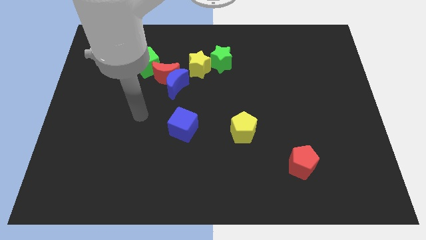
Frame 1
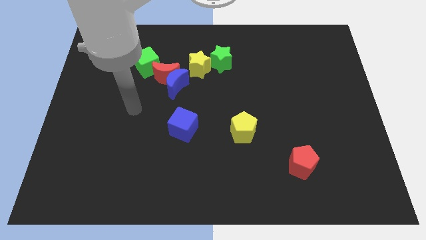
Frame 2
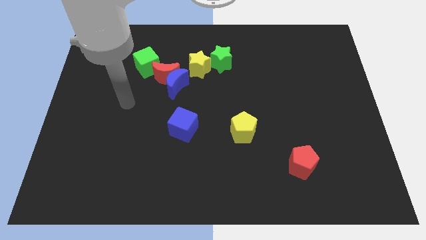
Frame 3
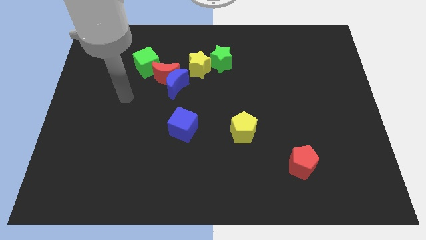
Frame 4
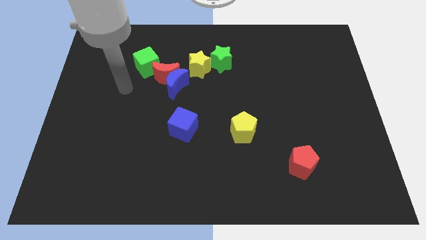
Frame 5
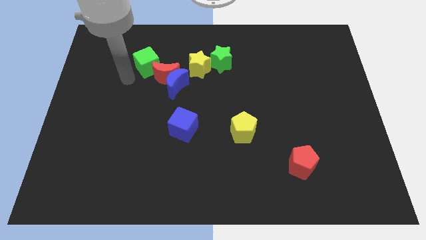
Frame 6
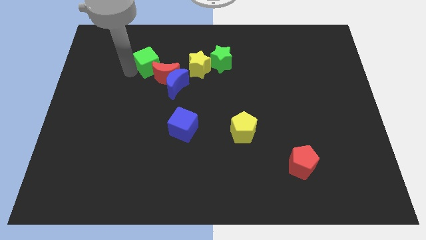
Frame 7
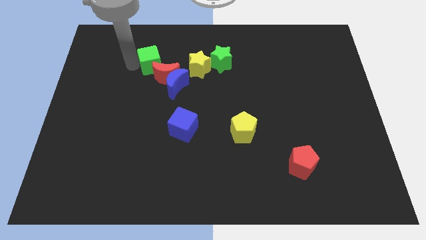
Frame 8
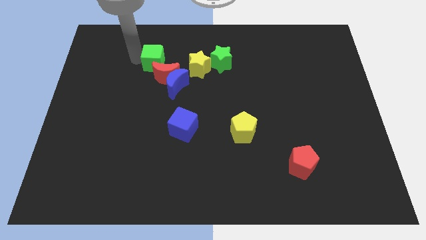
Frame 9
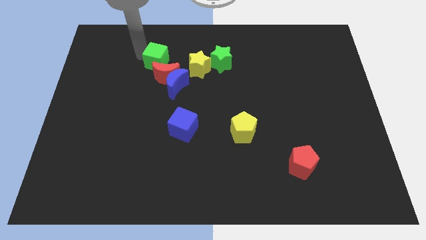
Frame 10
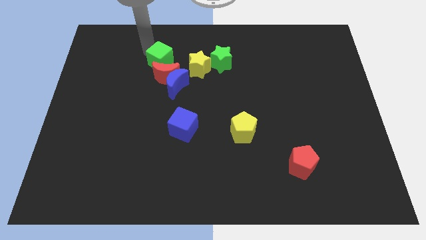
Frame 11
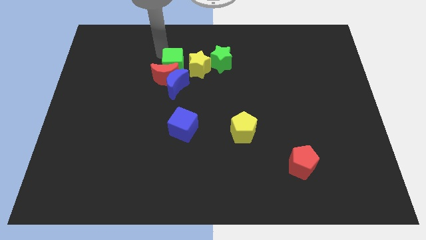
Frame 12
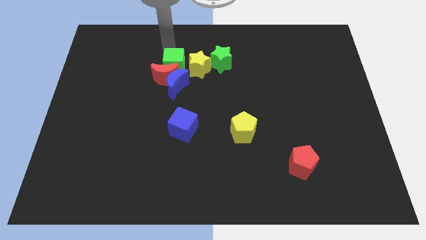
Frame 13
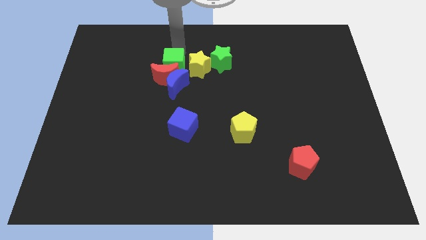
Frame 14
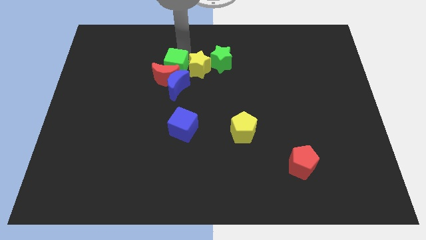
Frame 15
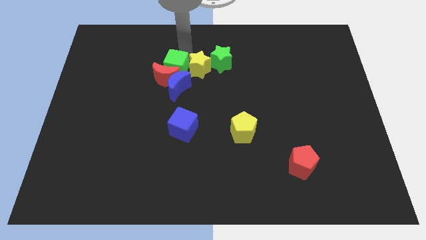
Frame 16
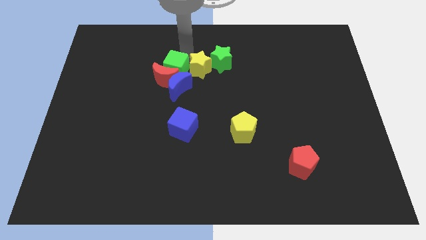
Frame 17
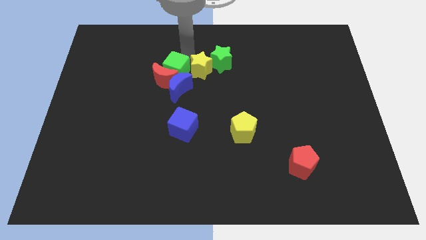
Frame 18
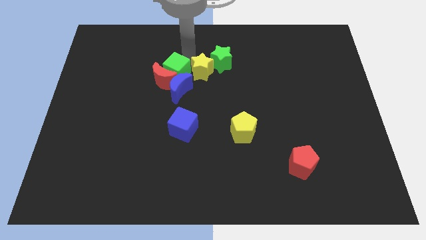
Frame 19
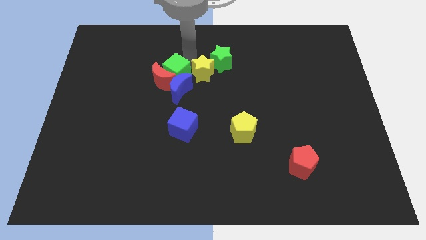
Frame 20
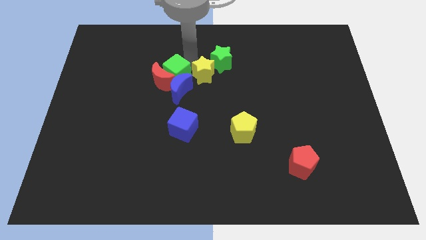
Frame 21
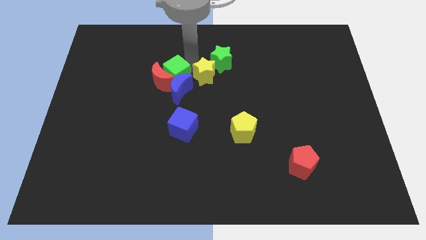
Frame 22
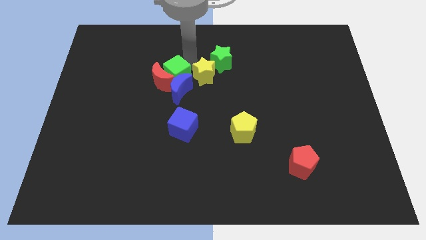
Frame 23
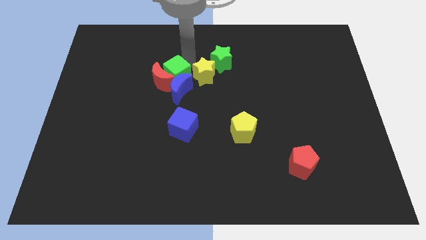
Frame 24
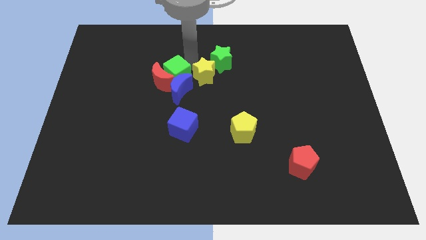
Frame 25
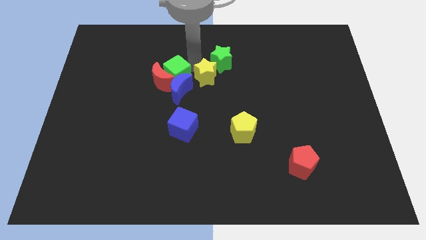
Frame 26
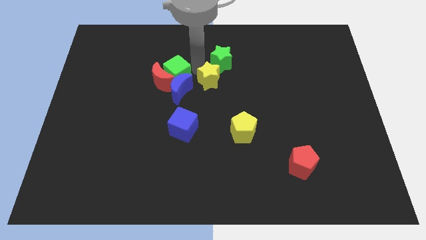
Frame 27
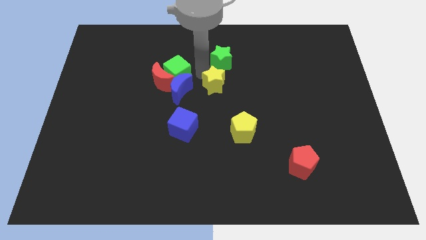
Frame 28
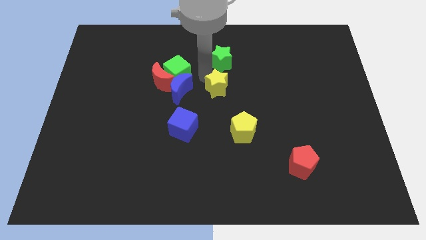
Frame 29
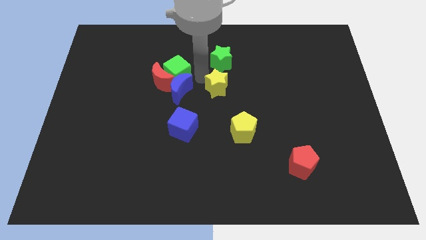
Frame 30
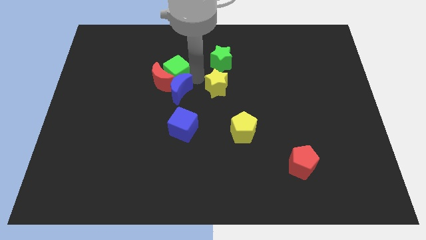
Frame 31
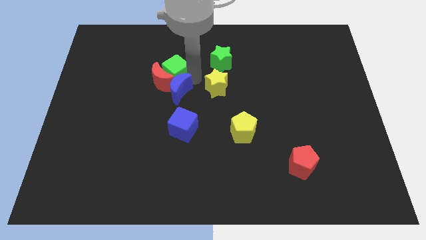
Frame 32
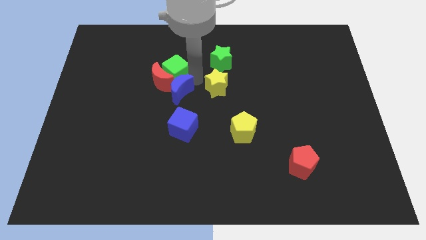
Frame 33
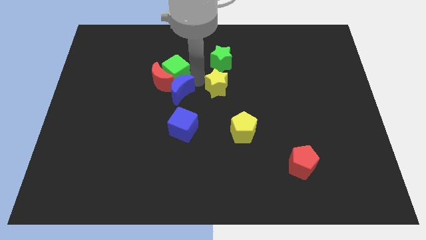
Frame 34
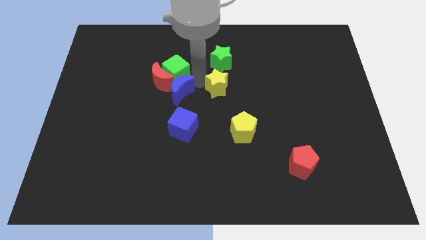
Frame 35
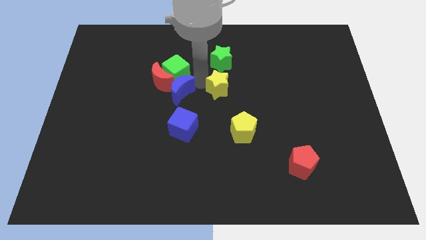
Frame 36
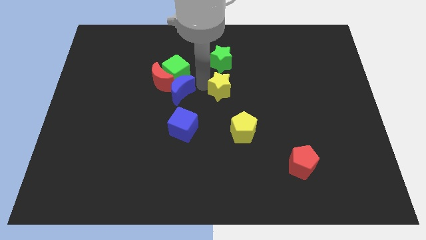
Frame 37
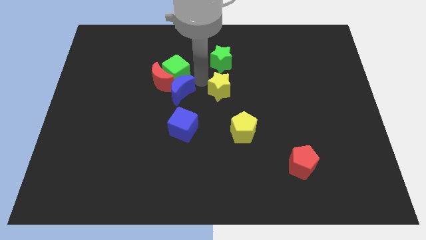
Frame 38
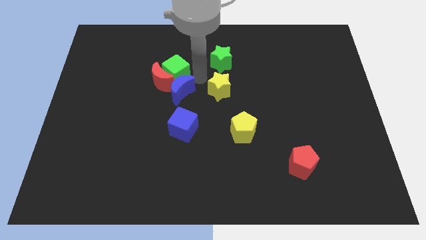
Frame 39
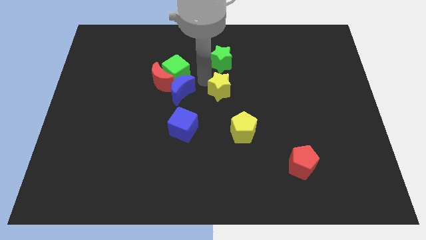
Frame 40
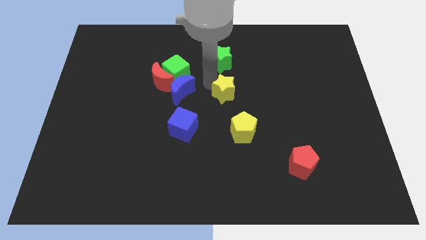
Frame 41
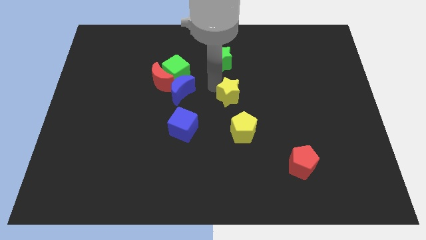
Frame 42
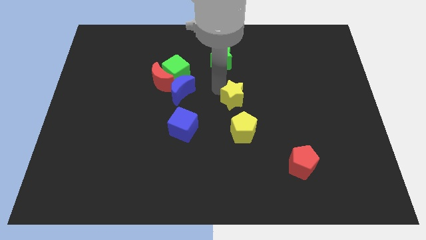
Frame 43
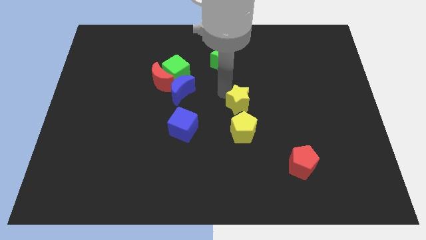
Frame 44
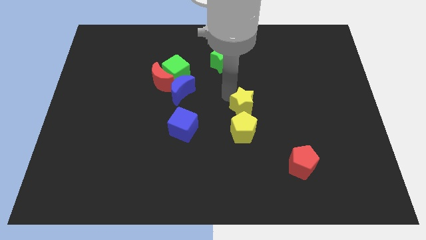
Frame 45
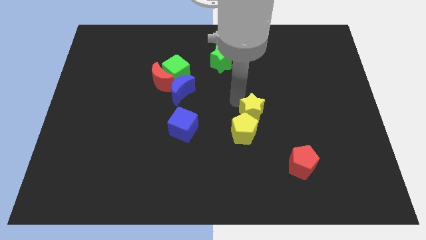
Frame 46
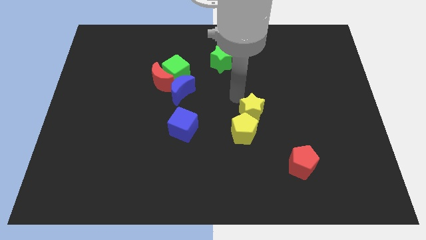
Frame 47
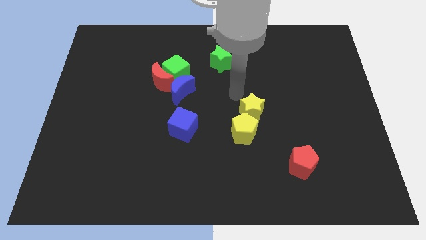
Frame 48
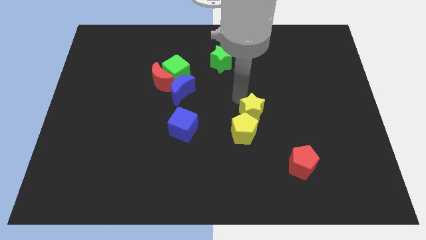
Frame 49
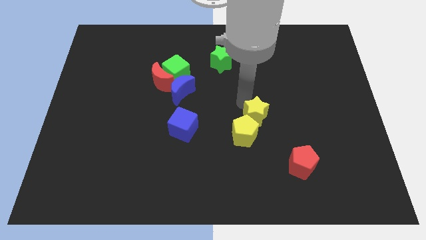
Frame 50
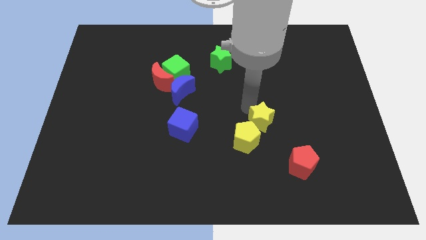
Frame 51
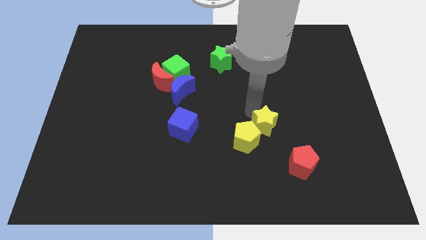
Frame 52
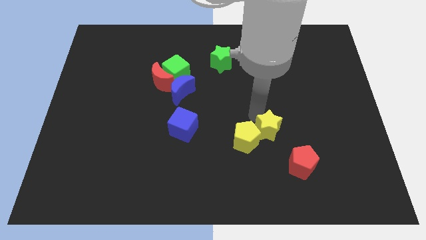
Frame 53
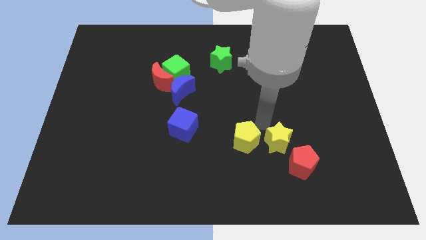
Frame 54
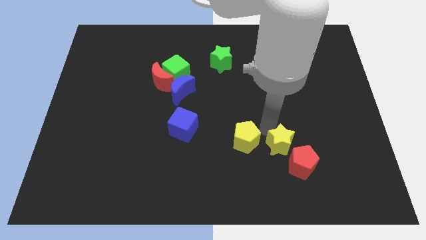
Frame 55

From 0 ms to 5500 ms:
move the yellow star towards the red pentagon

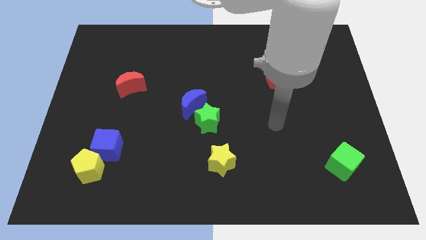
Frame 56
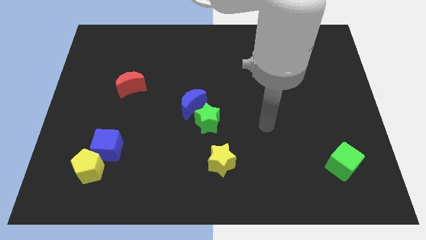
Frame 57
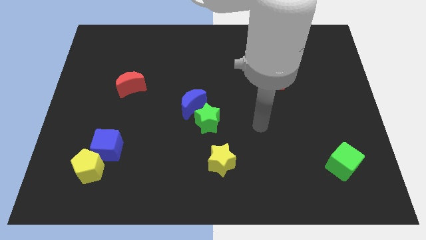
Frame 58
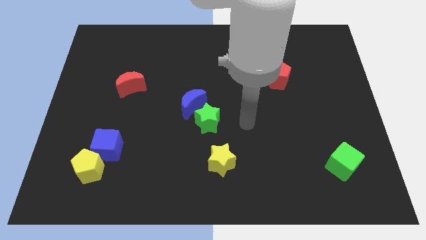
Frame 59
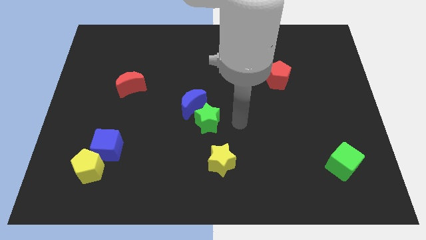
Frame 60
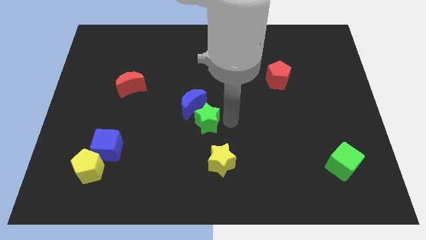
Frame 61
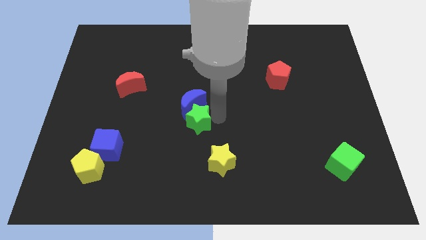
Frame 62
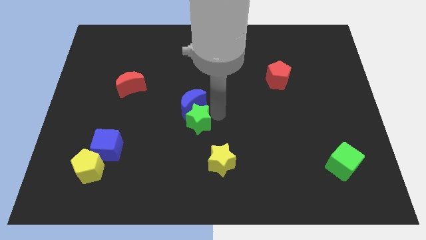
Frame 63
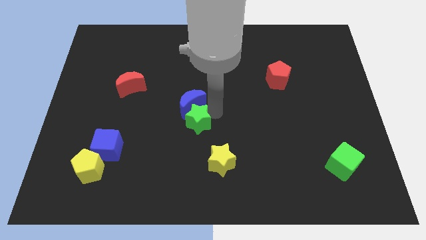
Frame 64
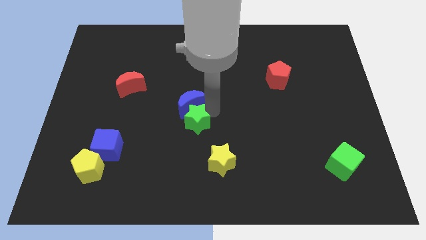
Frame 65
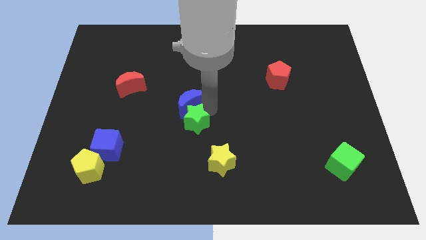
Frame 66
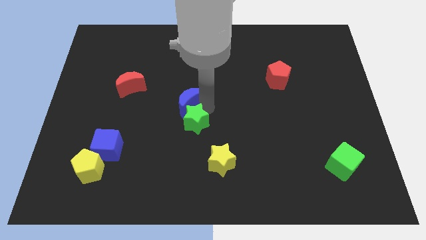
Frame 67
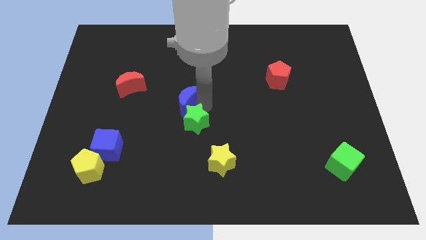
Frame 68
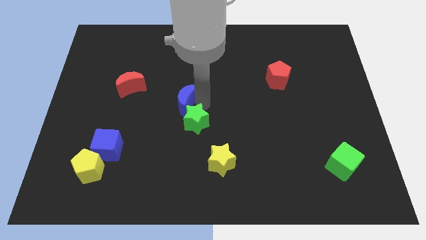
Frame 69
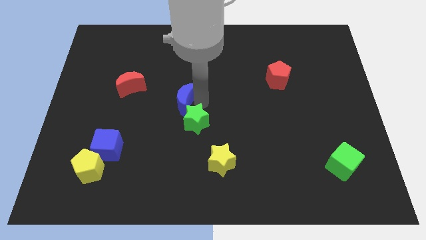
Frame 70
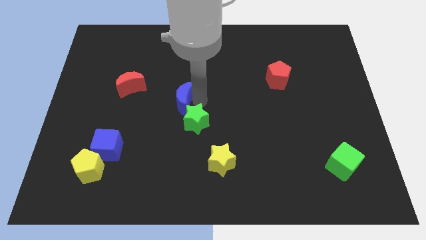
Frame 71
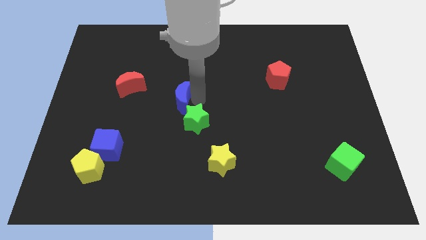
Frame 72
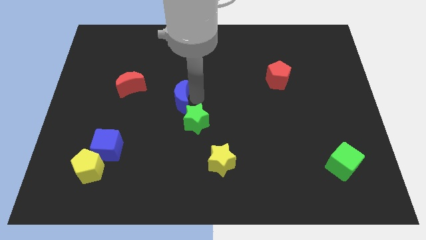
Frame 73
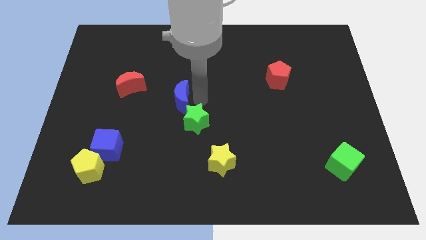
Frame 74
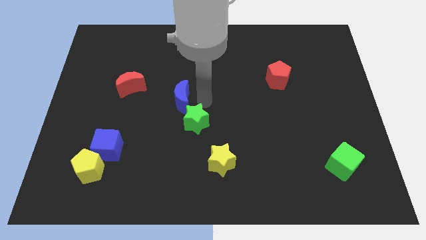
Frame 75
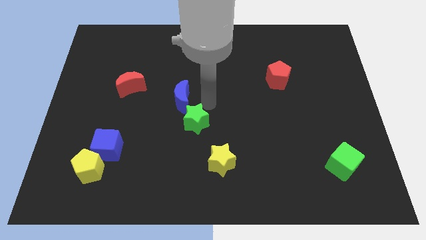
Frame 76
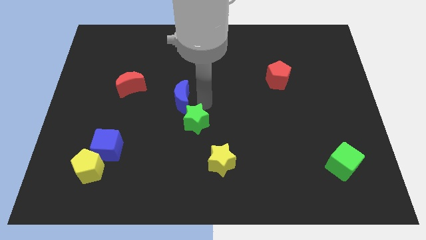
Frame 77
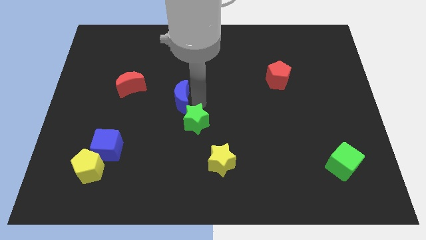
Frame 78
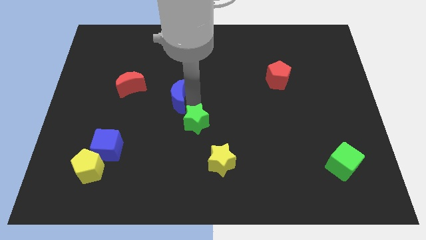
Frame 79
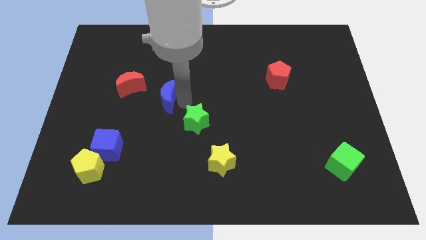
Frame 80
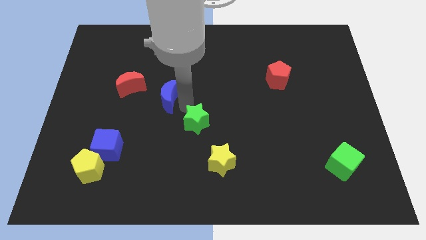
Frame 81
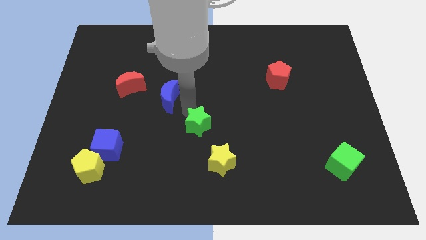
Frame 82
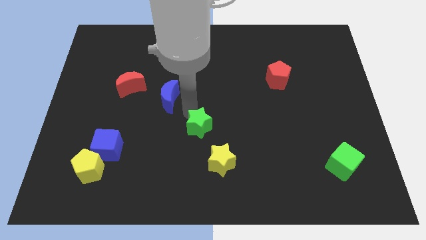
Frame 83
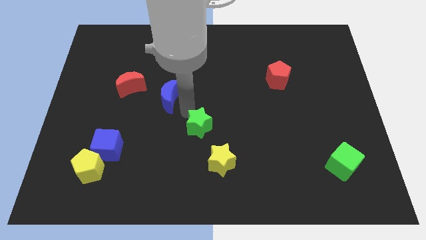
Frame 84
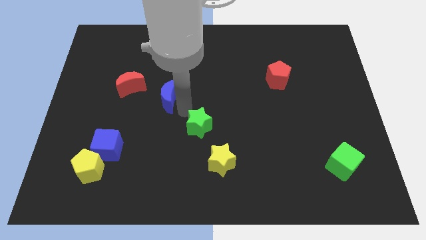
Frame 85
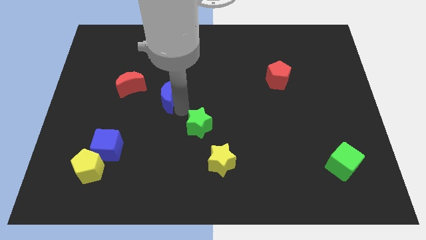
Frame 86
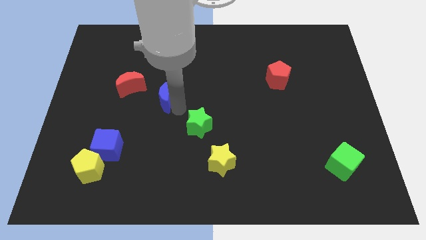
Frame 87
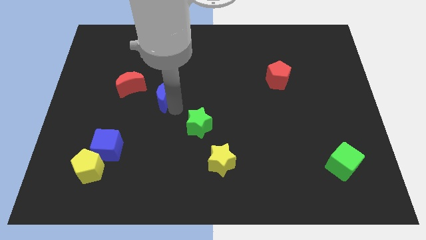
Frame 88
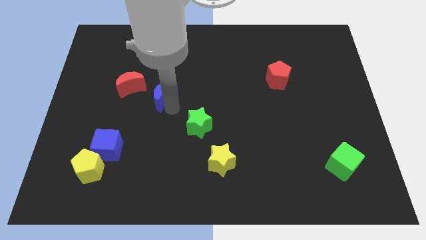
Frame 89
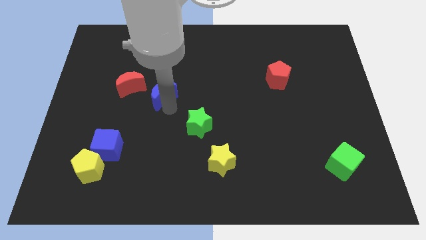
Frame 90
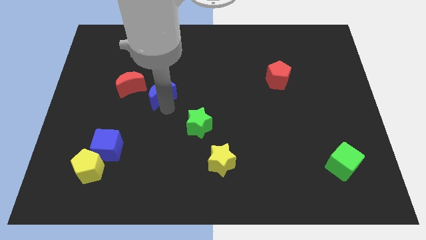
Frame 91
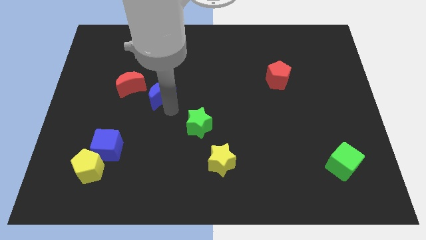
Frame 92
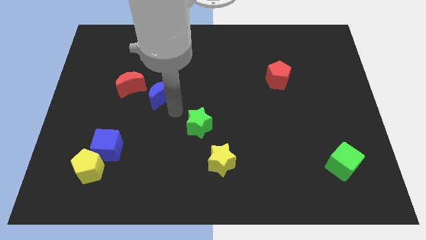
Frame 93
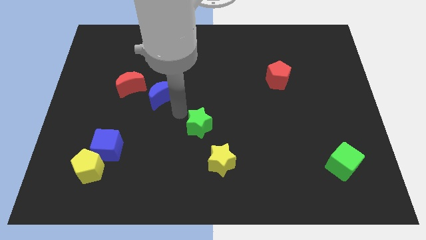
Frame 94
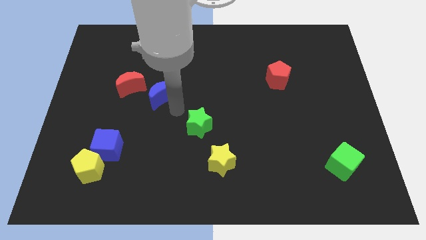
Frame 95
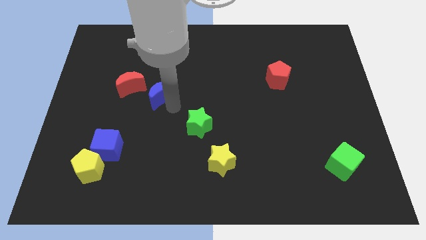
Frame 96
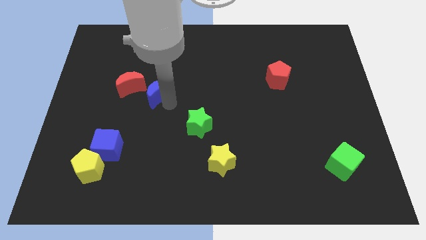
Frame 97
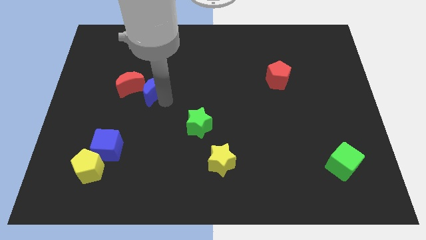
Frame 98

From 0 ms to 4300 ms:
push the blue moon next to the red moon
